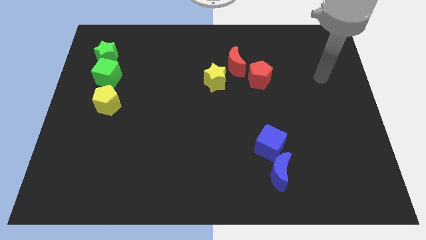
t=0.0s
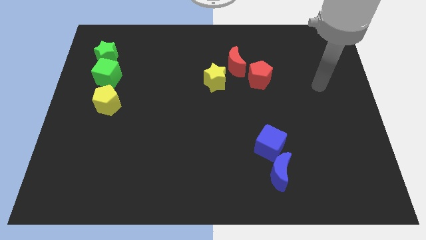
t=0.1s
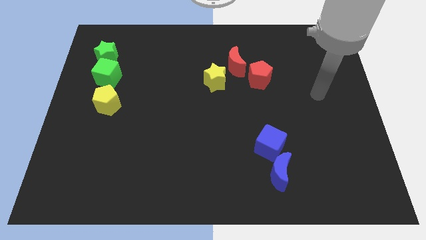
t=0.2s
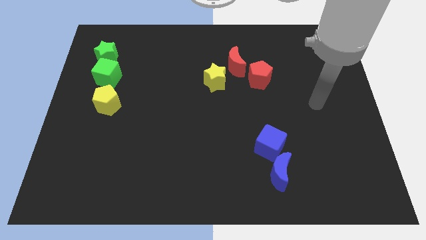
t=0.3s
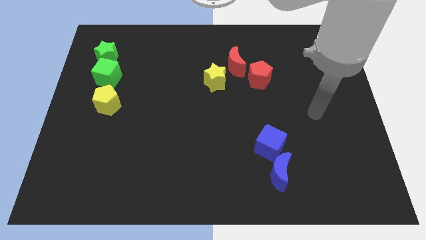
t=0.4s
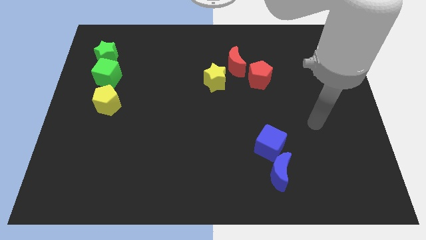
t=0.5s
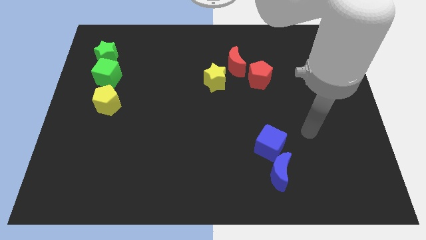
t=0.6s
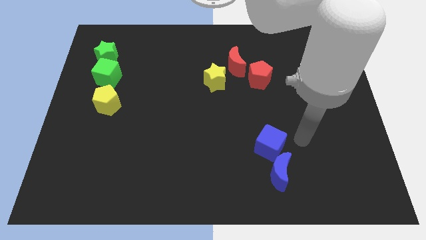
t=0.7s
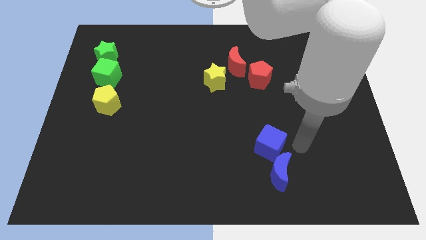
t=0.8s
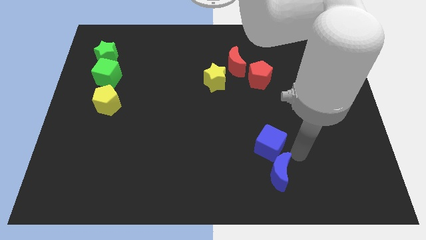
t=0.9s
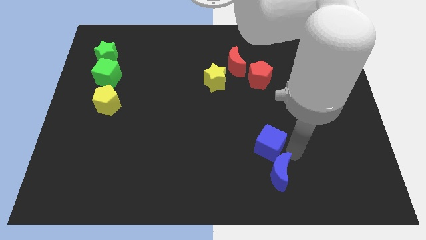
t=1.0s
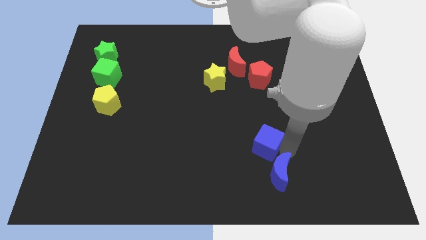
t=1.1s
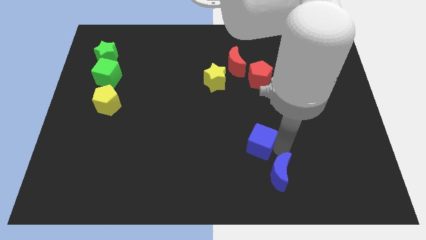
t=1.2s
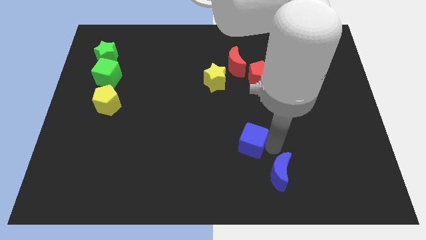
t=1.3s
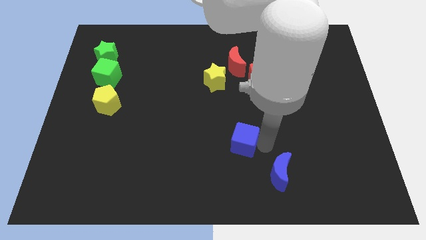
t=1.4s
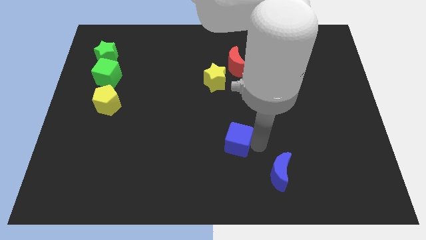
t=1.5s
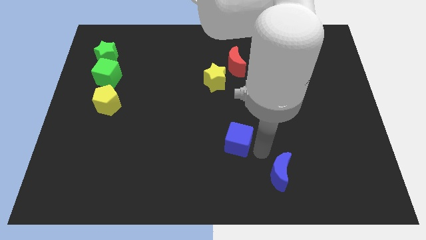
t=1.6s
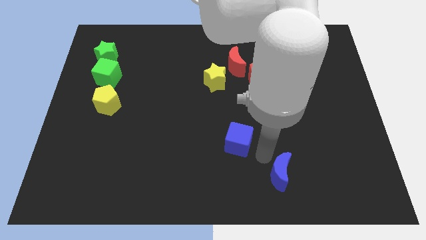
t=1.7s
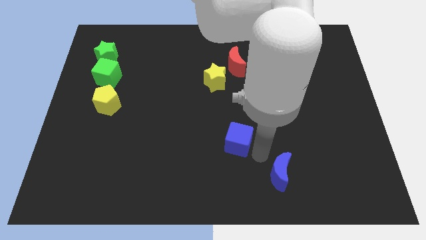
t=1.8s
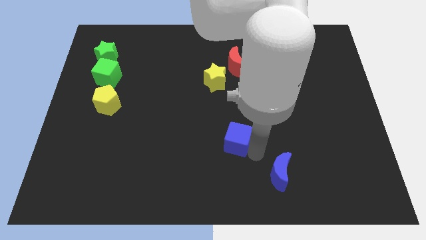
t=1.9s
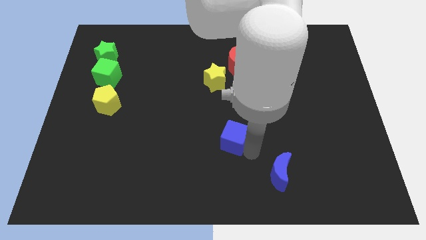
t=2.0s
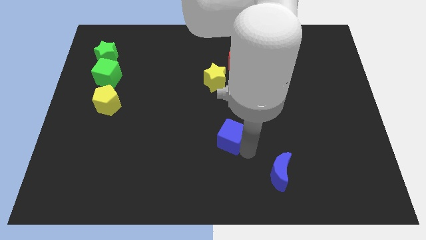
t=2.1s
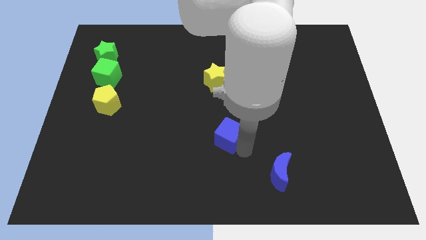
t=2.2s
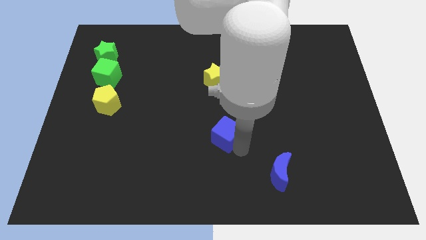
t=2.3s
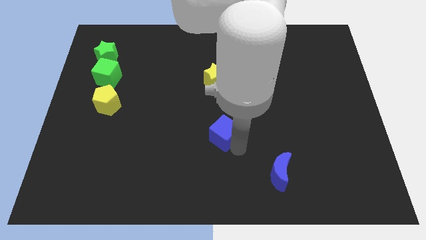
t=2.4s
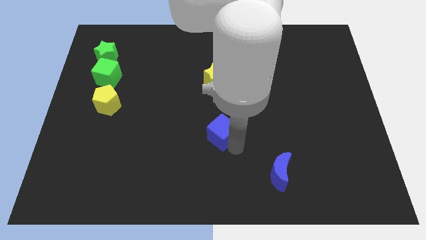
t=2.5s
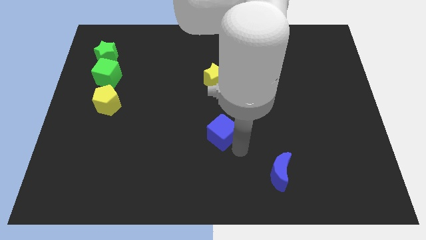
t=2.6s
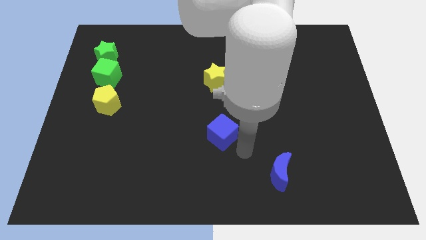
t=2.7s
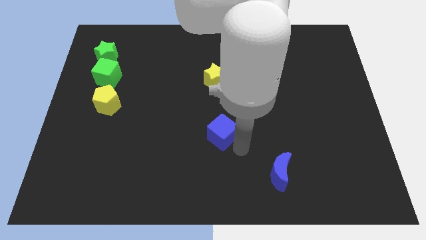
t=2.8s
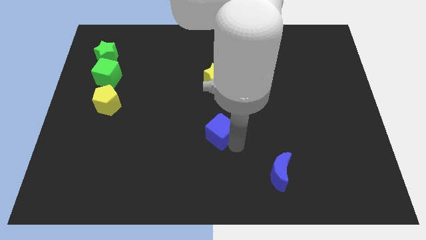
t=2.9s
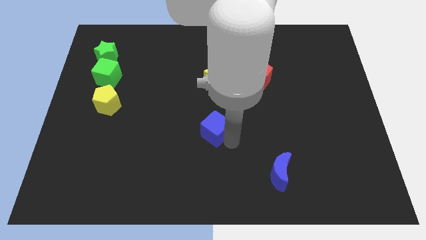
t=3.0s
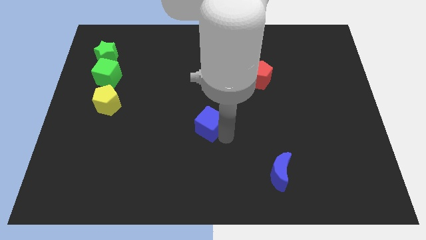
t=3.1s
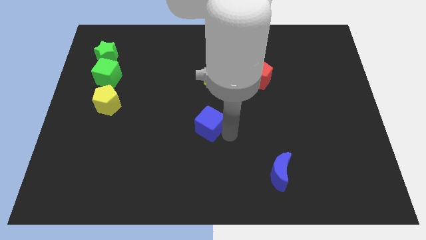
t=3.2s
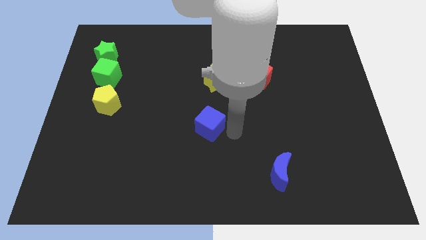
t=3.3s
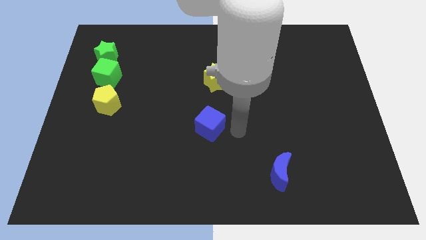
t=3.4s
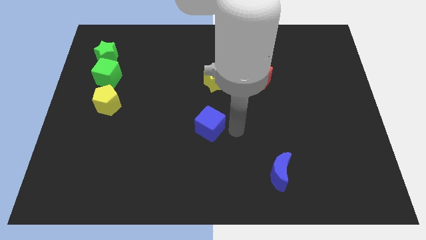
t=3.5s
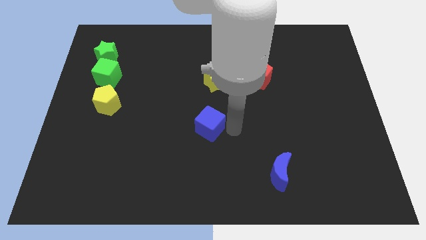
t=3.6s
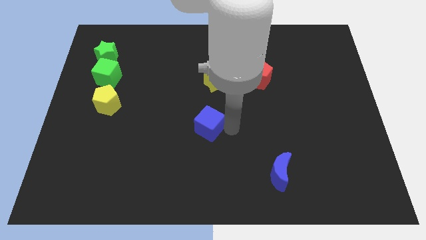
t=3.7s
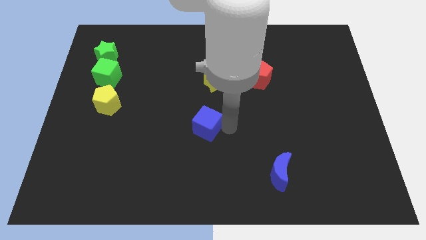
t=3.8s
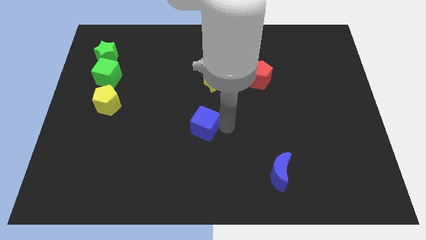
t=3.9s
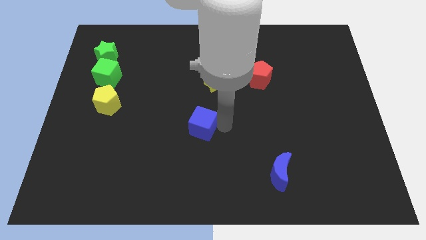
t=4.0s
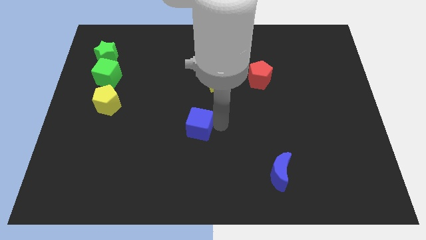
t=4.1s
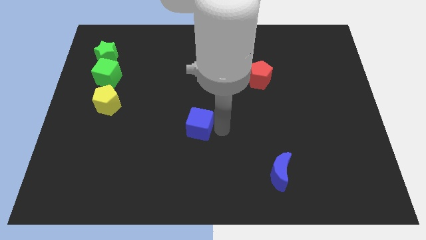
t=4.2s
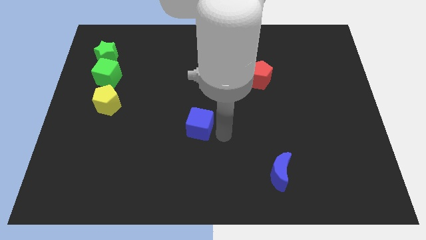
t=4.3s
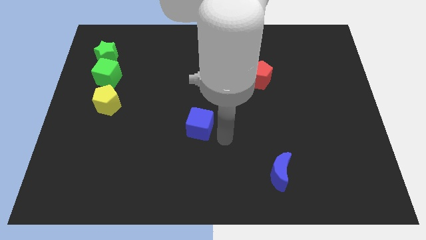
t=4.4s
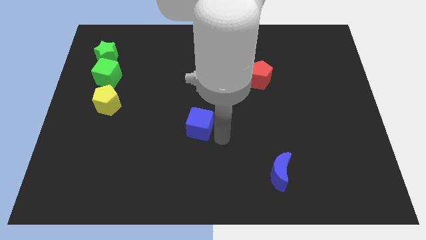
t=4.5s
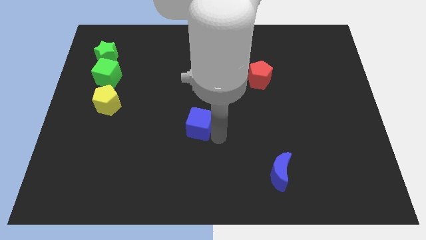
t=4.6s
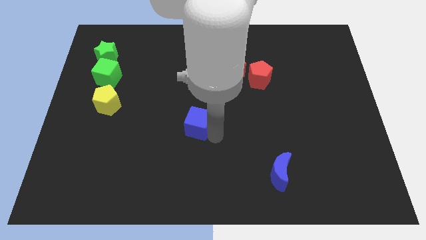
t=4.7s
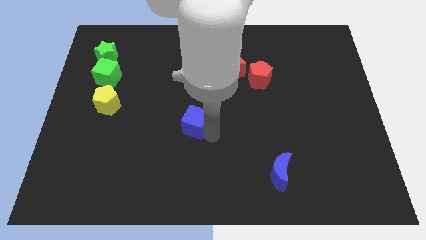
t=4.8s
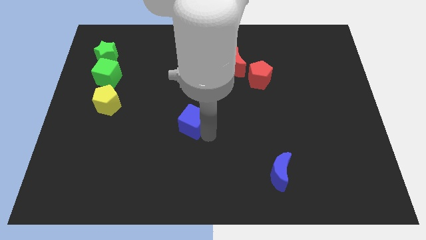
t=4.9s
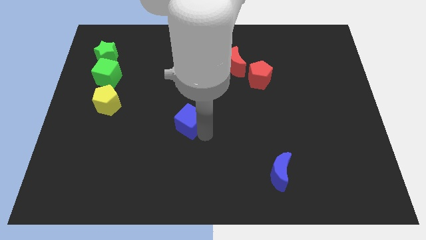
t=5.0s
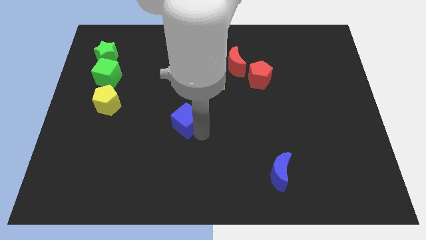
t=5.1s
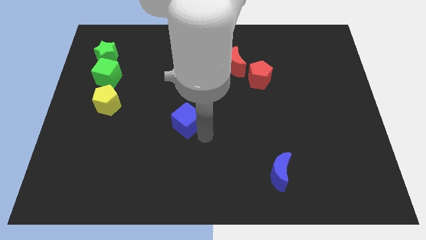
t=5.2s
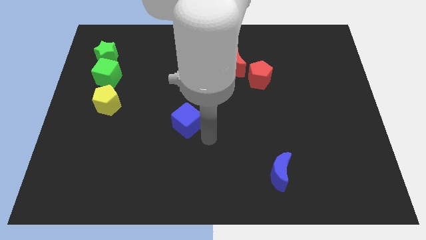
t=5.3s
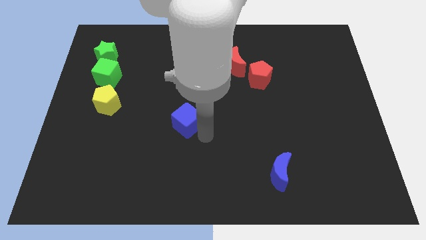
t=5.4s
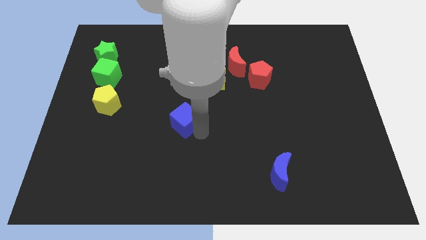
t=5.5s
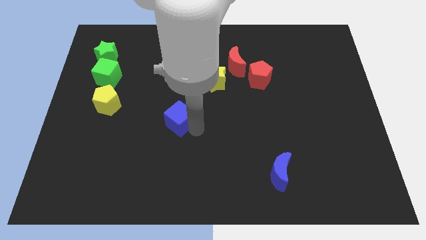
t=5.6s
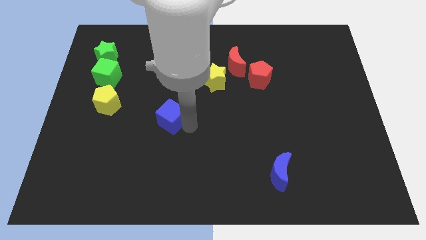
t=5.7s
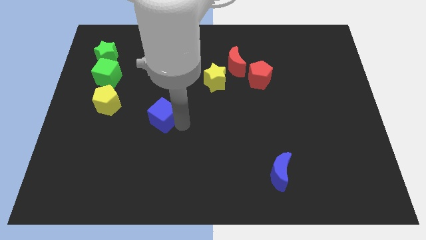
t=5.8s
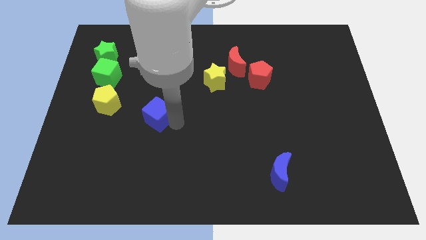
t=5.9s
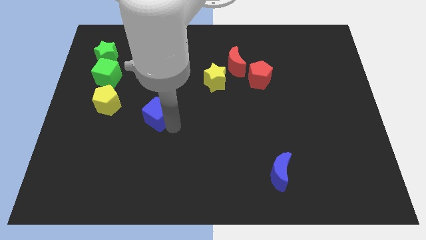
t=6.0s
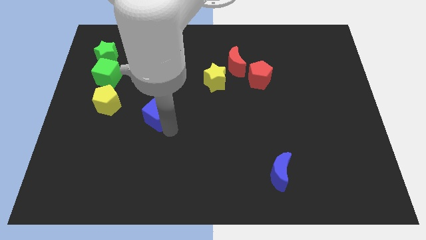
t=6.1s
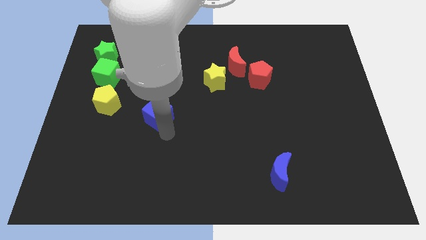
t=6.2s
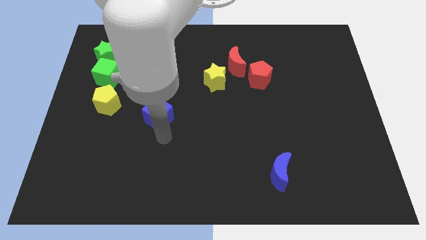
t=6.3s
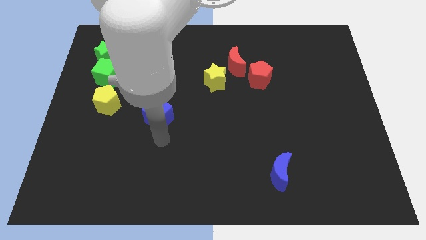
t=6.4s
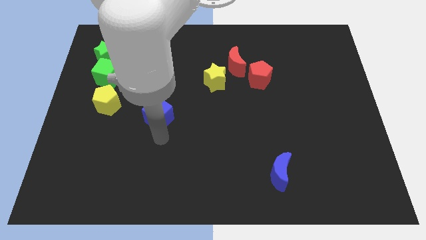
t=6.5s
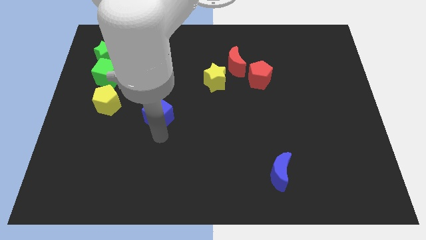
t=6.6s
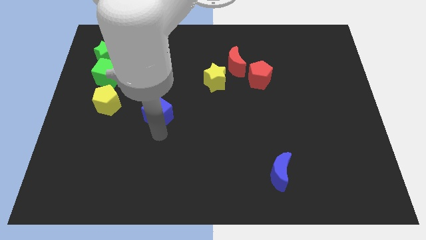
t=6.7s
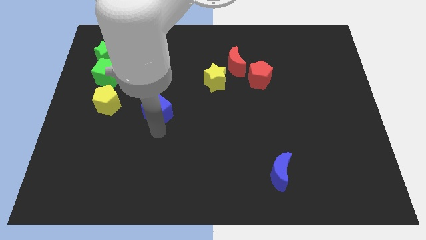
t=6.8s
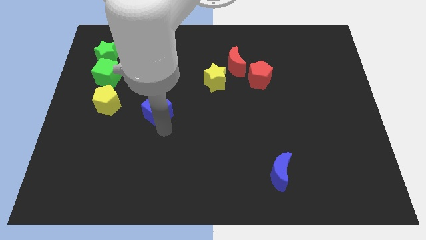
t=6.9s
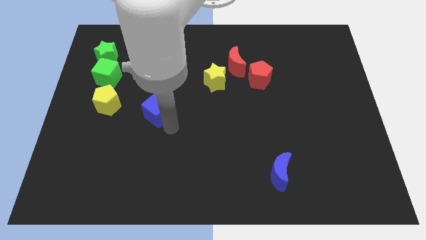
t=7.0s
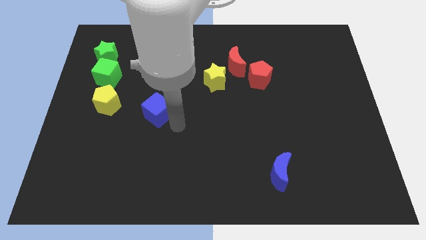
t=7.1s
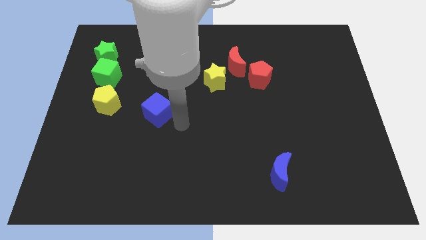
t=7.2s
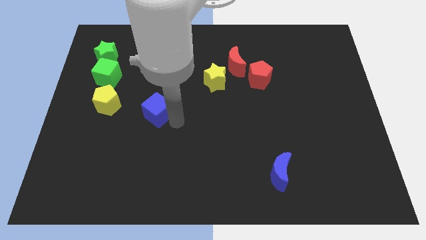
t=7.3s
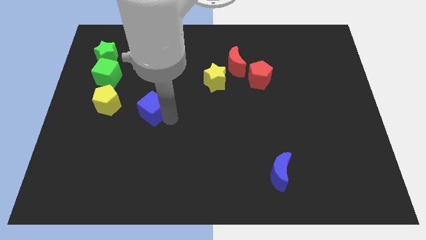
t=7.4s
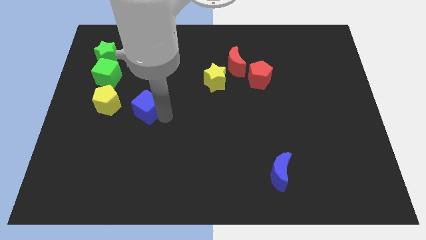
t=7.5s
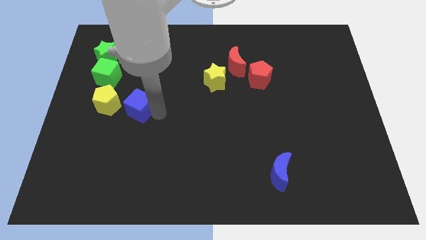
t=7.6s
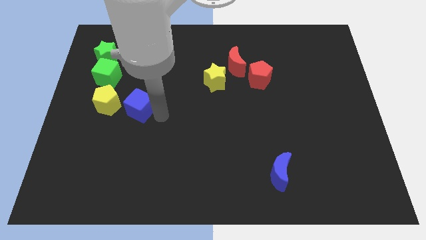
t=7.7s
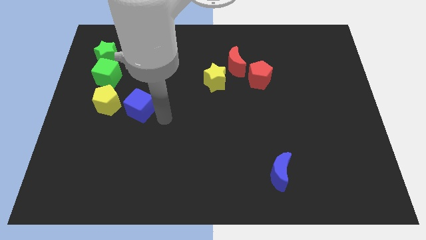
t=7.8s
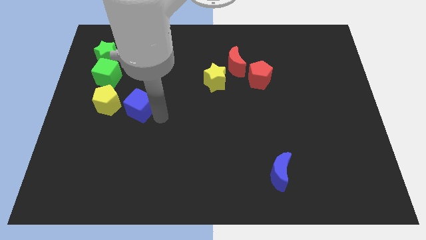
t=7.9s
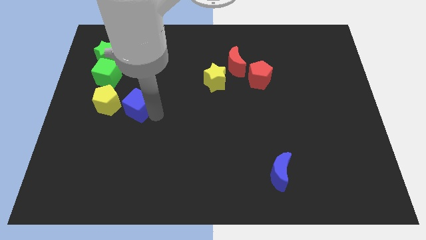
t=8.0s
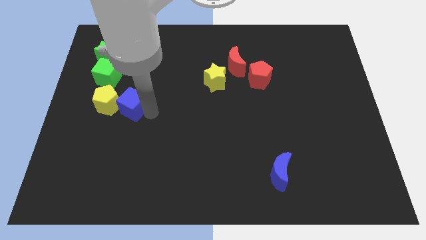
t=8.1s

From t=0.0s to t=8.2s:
put the blue cube close to the yellow pentagon
